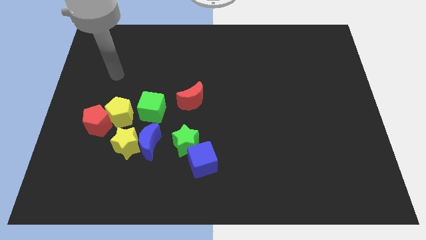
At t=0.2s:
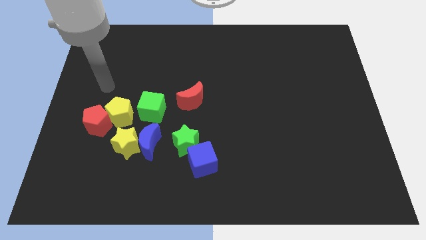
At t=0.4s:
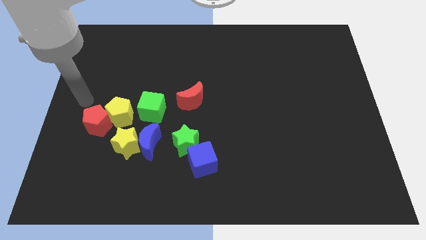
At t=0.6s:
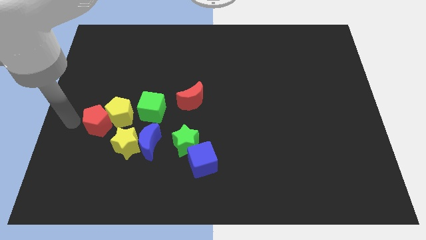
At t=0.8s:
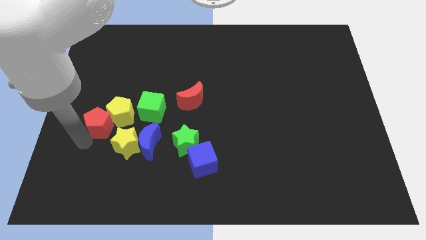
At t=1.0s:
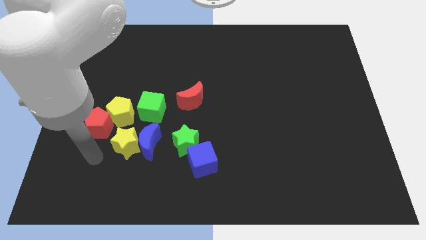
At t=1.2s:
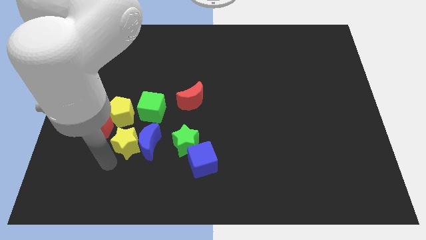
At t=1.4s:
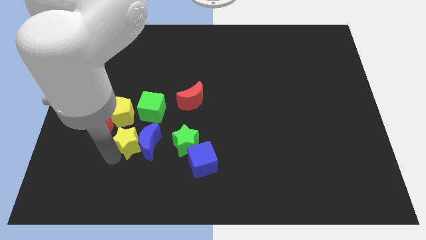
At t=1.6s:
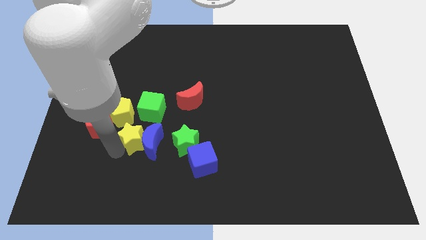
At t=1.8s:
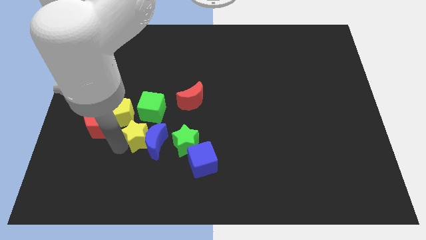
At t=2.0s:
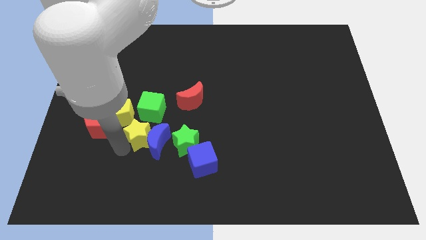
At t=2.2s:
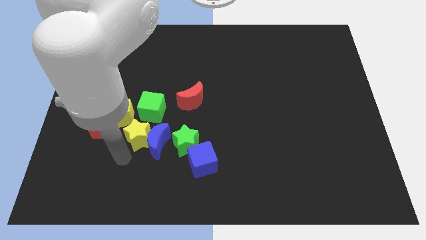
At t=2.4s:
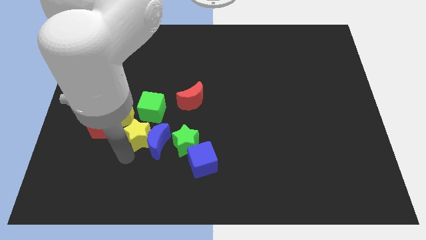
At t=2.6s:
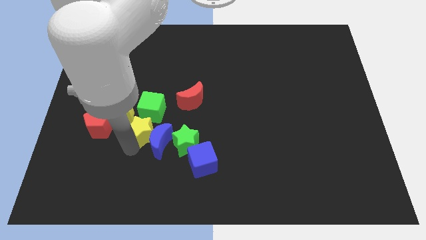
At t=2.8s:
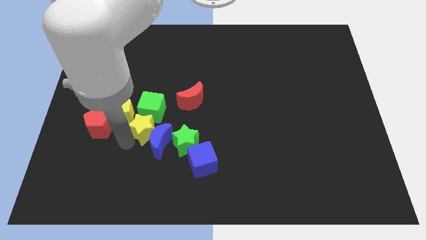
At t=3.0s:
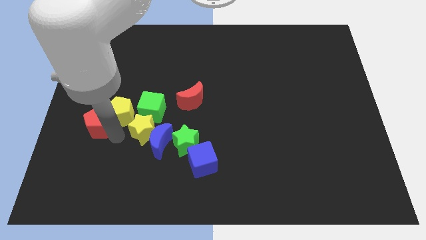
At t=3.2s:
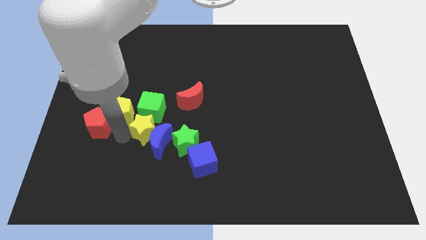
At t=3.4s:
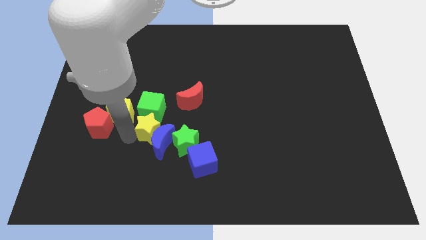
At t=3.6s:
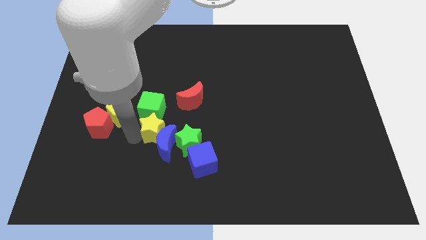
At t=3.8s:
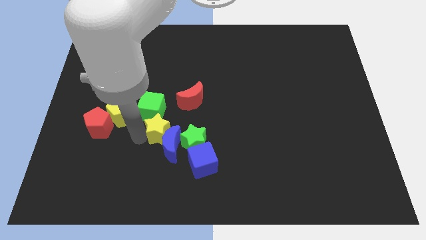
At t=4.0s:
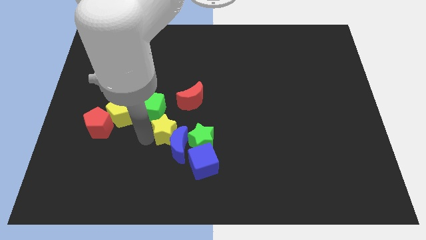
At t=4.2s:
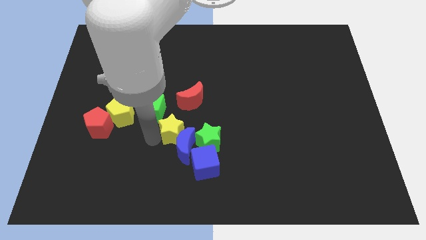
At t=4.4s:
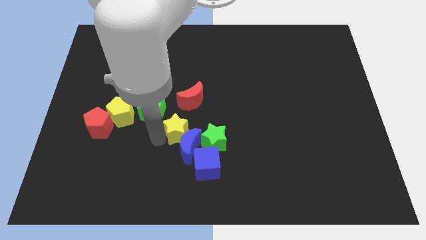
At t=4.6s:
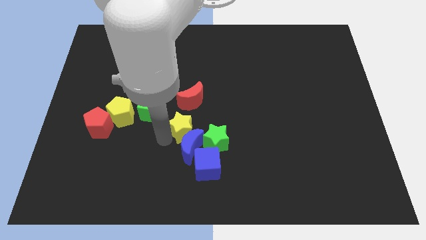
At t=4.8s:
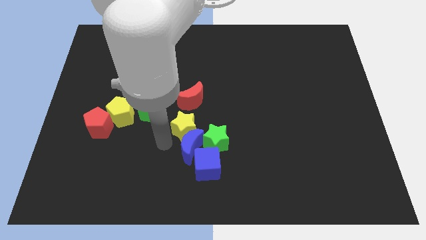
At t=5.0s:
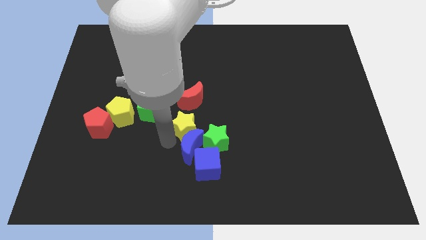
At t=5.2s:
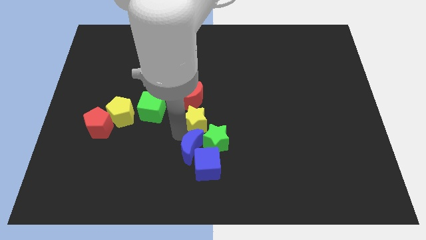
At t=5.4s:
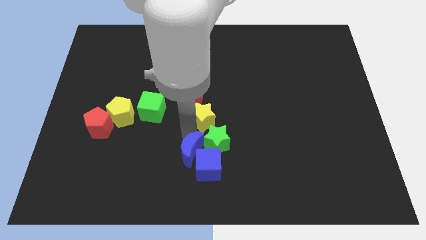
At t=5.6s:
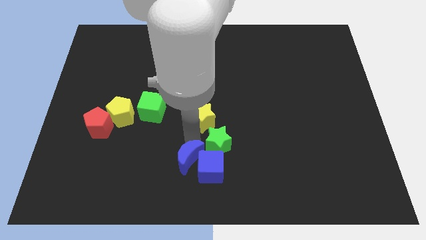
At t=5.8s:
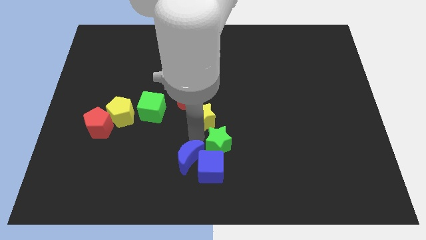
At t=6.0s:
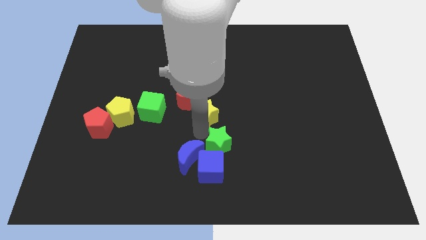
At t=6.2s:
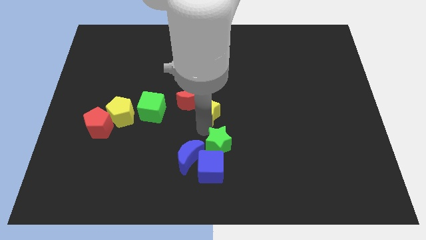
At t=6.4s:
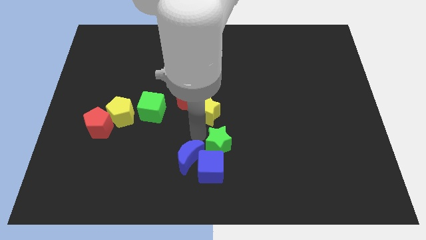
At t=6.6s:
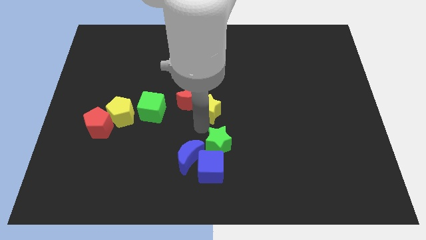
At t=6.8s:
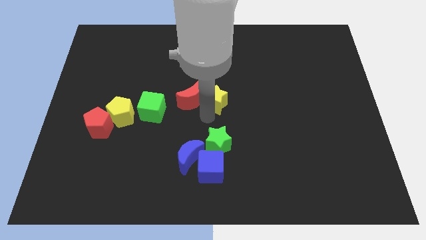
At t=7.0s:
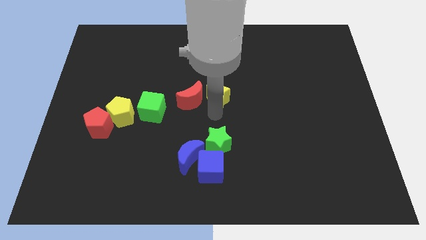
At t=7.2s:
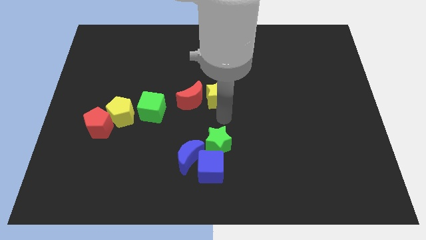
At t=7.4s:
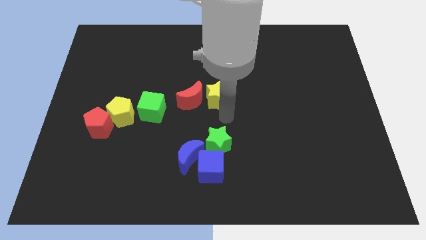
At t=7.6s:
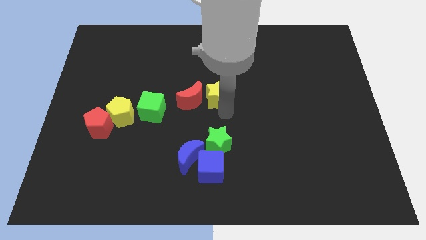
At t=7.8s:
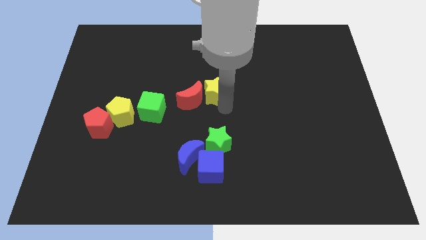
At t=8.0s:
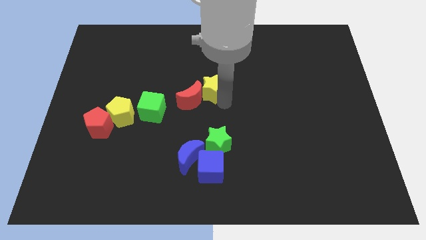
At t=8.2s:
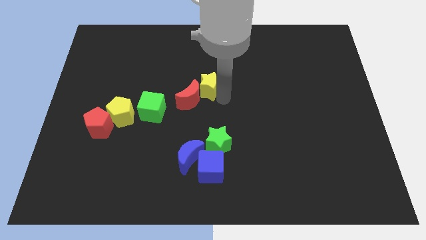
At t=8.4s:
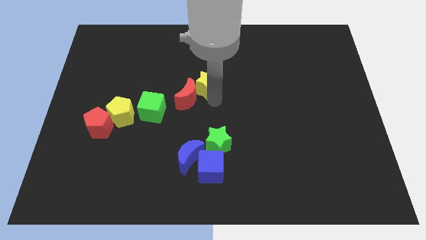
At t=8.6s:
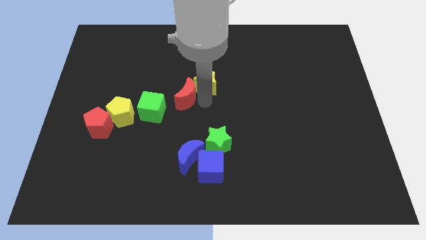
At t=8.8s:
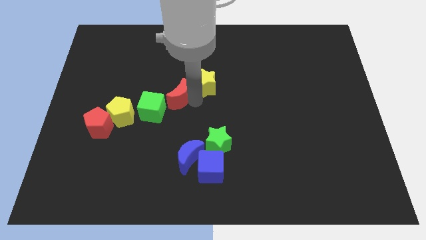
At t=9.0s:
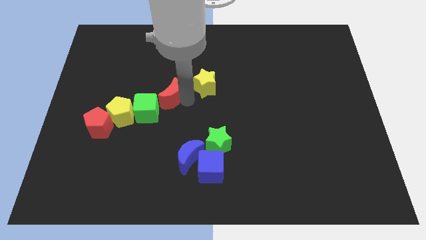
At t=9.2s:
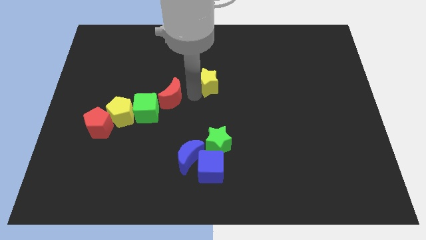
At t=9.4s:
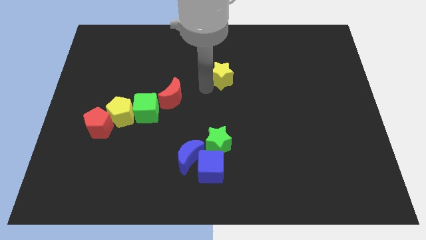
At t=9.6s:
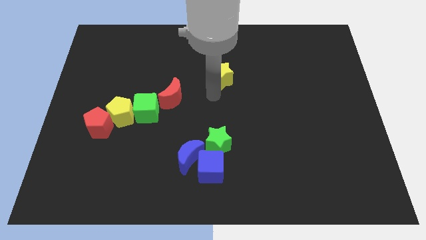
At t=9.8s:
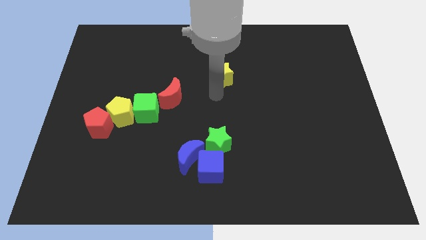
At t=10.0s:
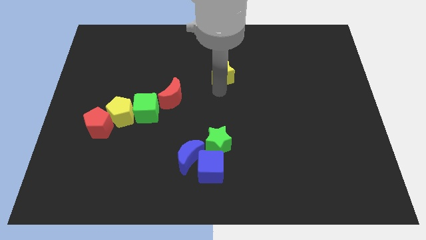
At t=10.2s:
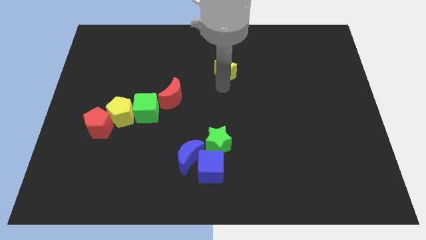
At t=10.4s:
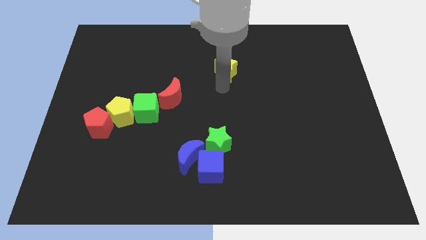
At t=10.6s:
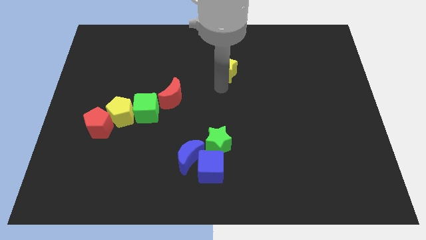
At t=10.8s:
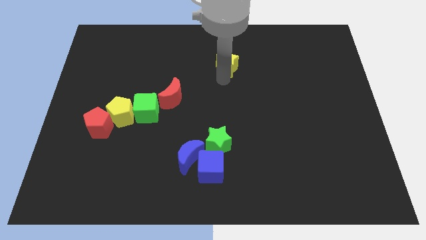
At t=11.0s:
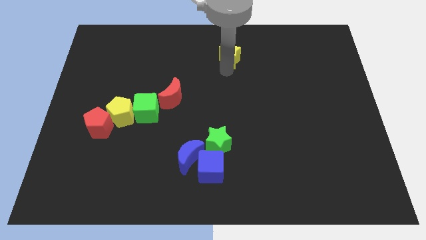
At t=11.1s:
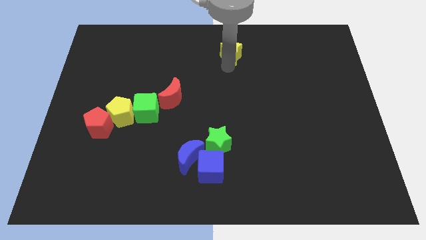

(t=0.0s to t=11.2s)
push the yellow star to the top side
